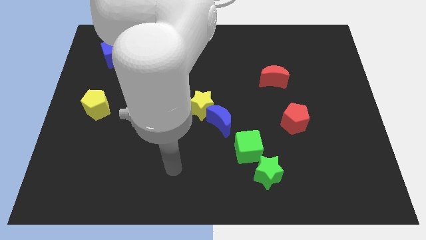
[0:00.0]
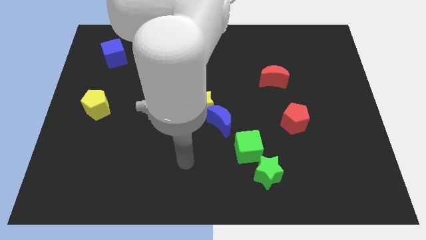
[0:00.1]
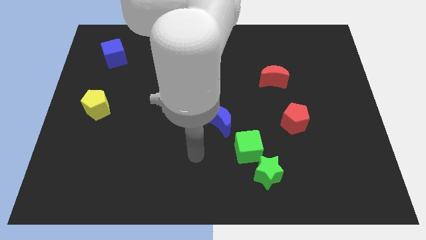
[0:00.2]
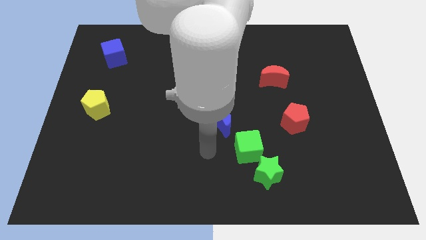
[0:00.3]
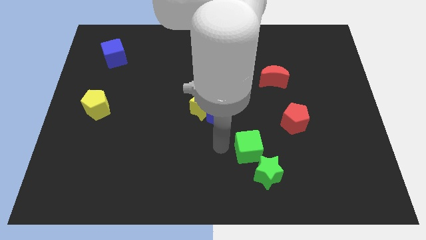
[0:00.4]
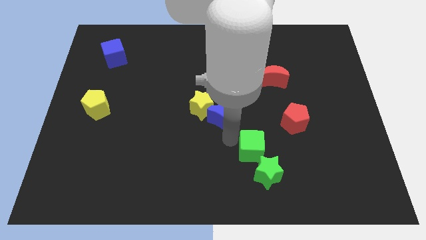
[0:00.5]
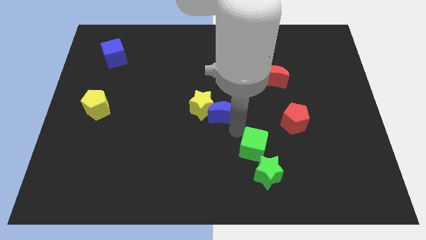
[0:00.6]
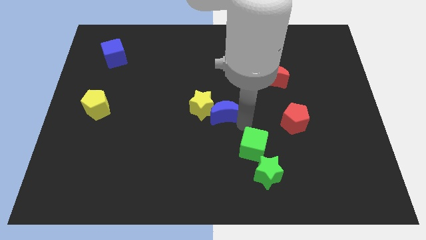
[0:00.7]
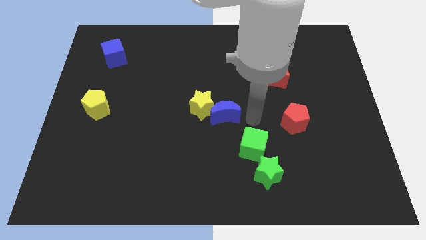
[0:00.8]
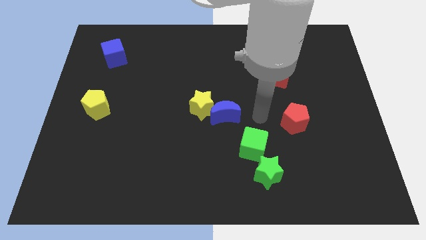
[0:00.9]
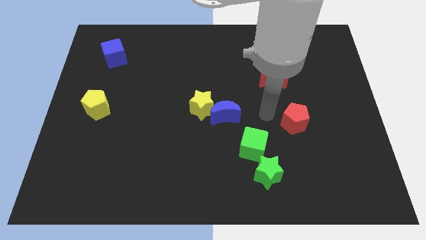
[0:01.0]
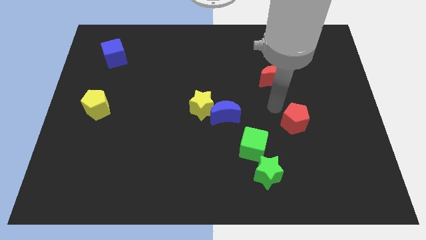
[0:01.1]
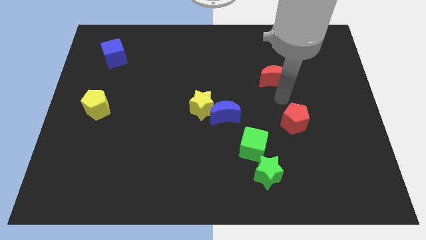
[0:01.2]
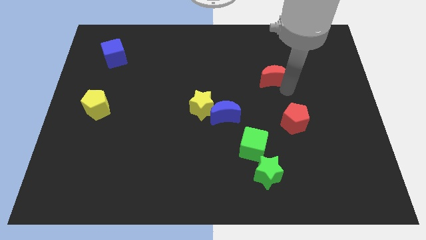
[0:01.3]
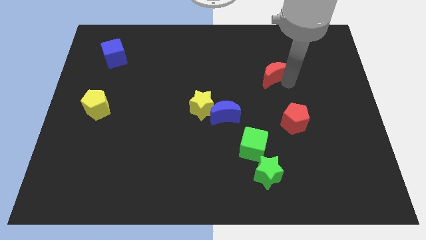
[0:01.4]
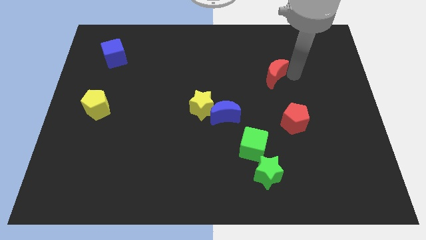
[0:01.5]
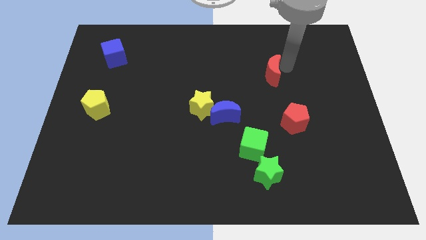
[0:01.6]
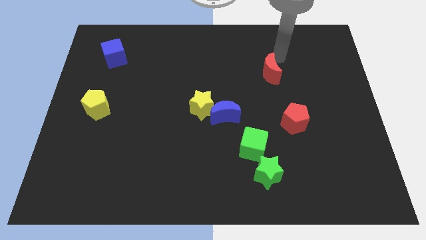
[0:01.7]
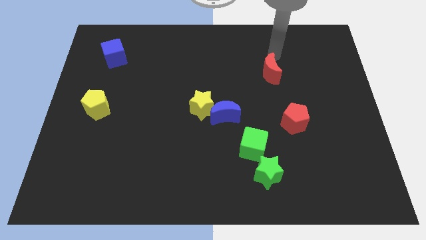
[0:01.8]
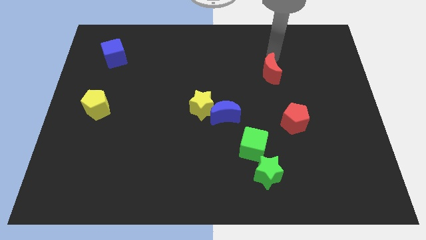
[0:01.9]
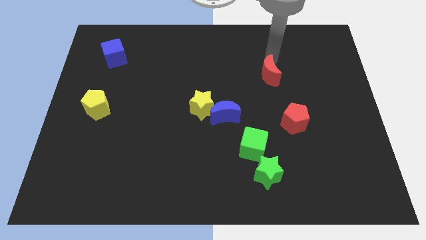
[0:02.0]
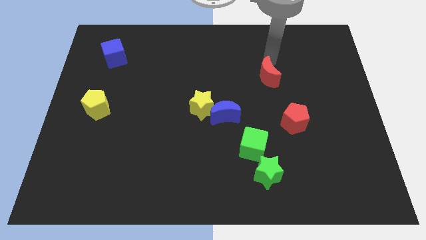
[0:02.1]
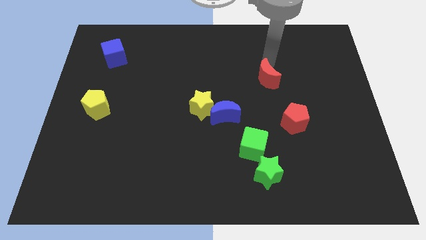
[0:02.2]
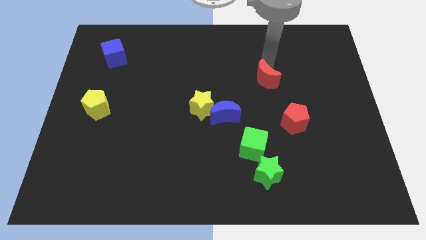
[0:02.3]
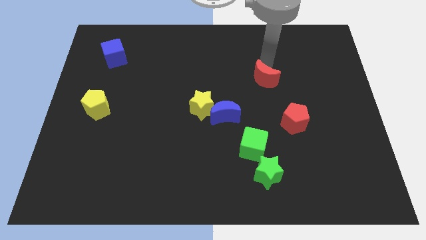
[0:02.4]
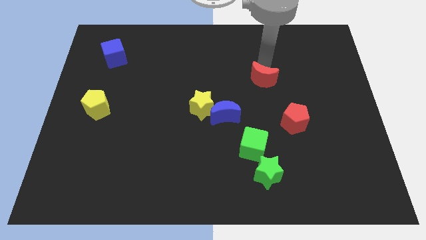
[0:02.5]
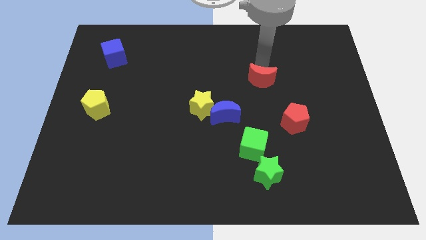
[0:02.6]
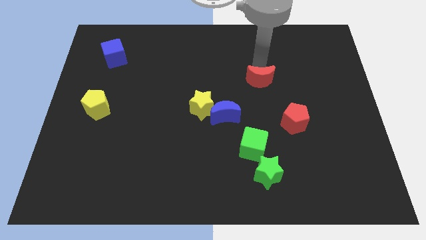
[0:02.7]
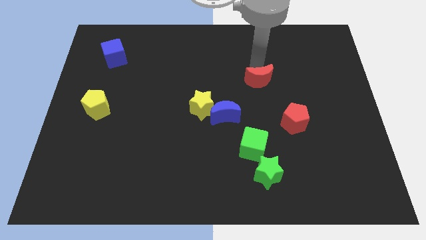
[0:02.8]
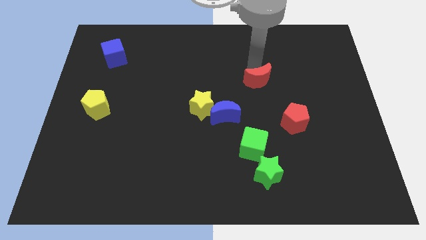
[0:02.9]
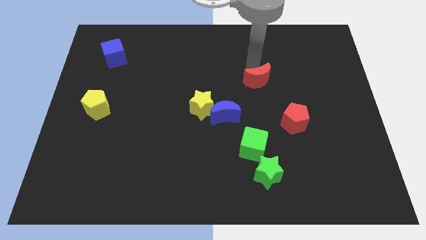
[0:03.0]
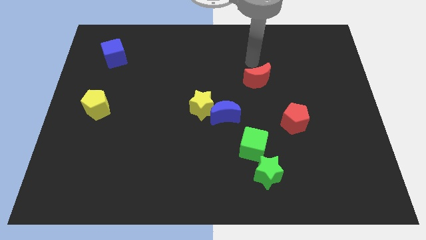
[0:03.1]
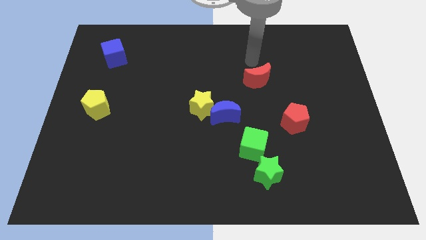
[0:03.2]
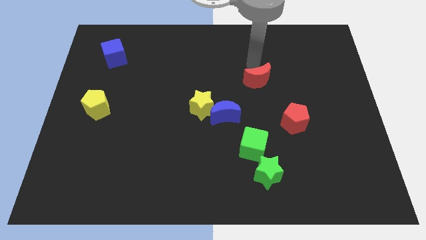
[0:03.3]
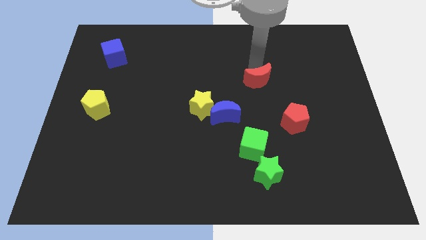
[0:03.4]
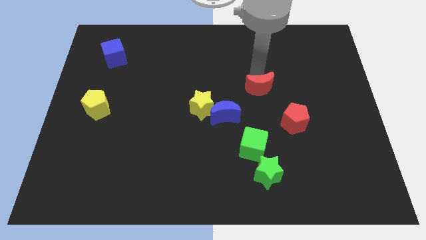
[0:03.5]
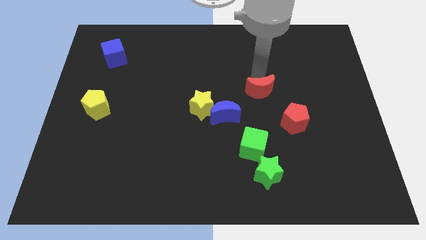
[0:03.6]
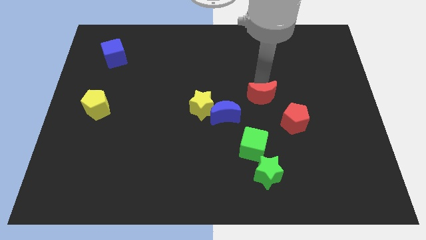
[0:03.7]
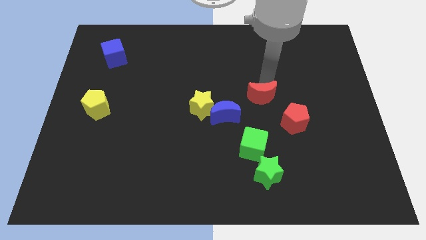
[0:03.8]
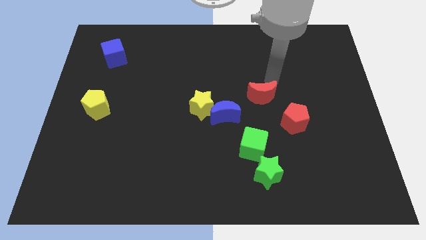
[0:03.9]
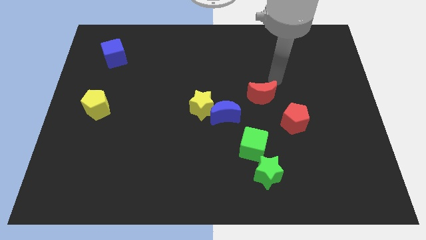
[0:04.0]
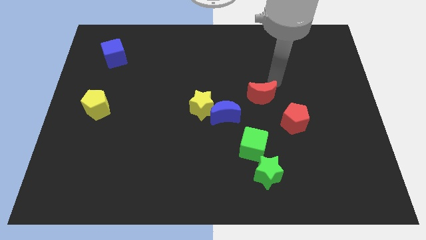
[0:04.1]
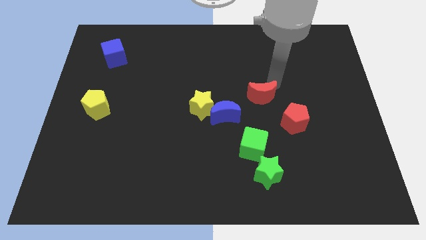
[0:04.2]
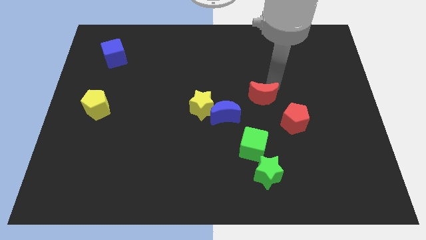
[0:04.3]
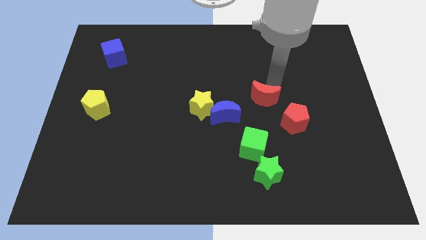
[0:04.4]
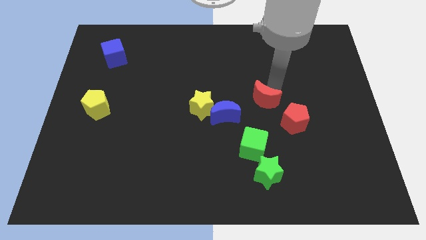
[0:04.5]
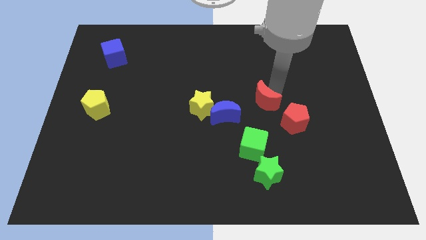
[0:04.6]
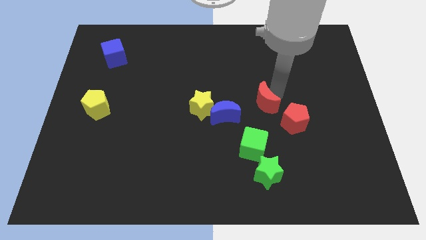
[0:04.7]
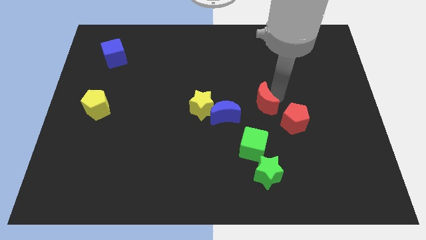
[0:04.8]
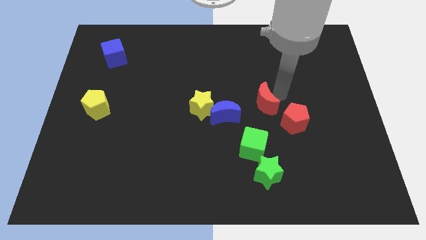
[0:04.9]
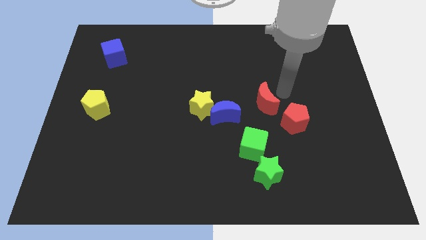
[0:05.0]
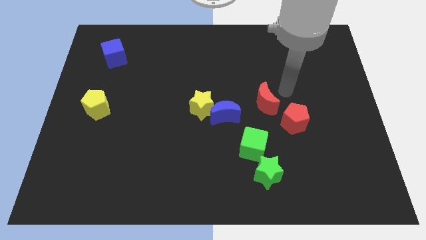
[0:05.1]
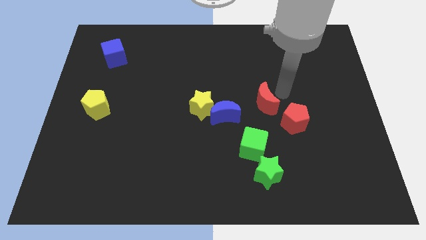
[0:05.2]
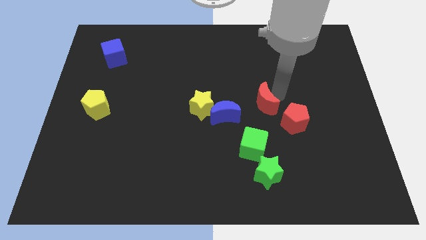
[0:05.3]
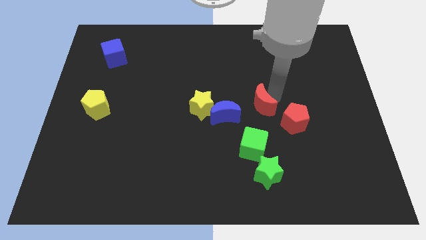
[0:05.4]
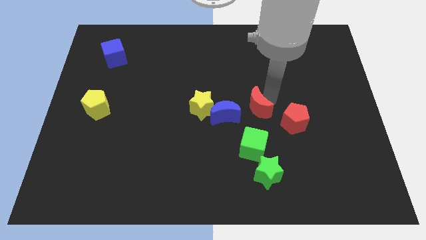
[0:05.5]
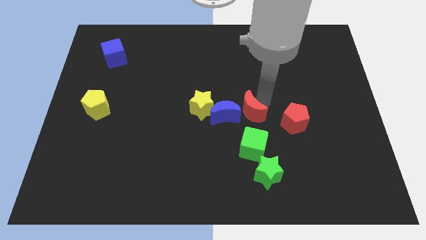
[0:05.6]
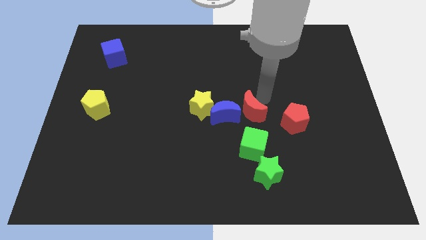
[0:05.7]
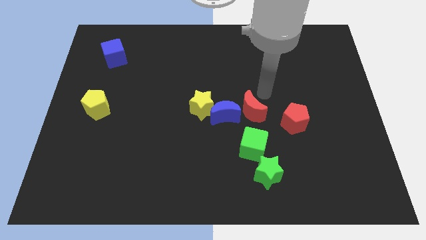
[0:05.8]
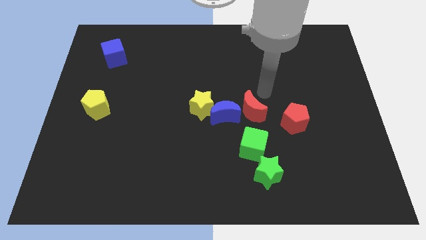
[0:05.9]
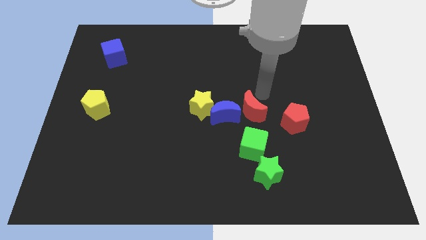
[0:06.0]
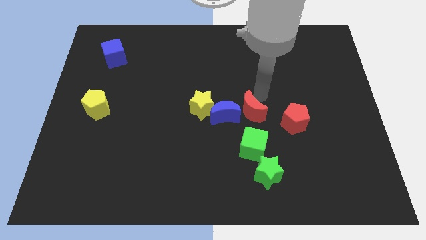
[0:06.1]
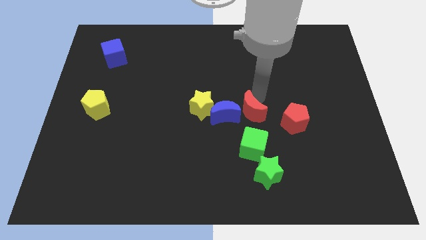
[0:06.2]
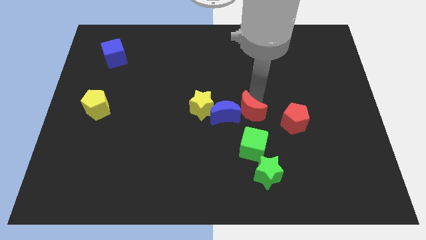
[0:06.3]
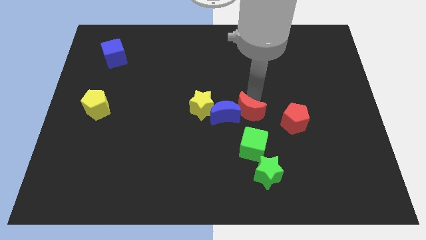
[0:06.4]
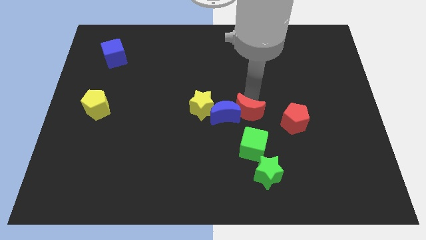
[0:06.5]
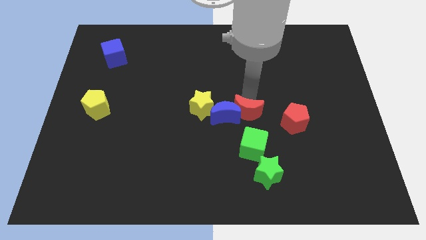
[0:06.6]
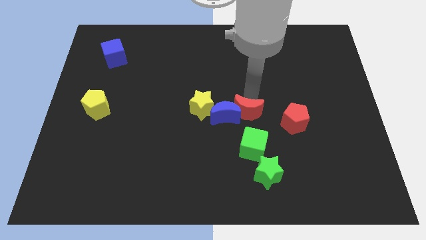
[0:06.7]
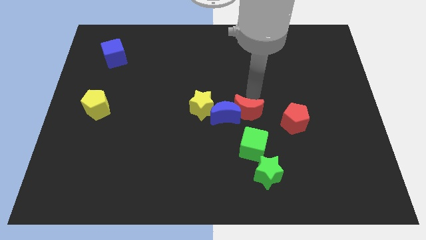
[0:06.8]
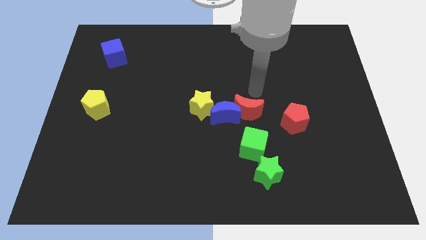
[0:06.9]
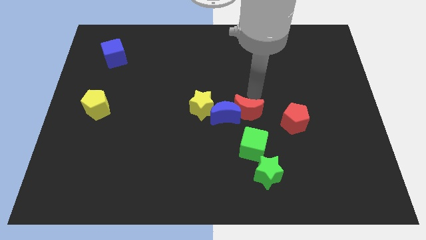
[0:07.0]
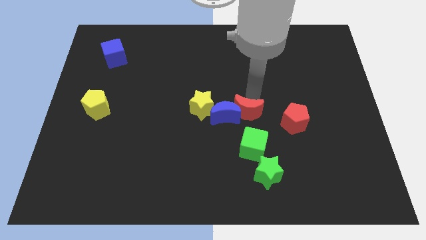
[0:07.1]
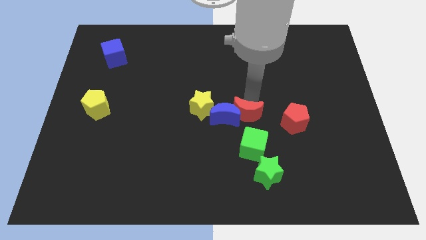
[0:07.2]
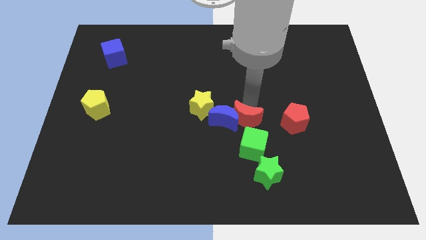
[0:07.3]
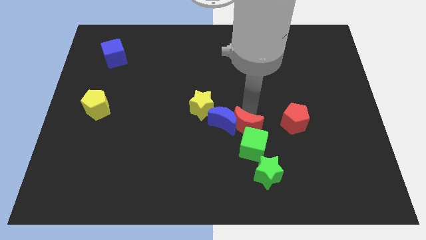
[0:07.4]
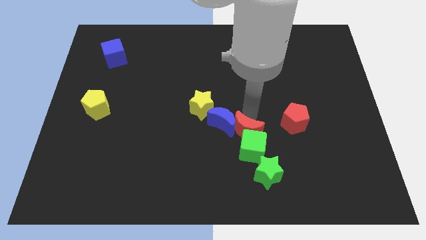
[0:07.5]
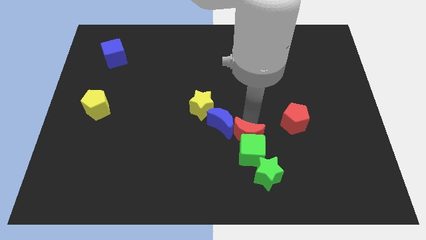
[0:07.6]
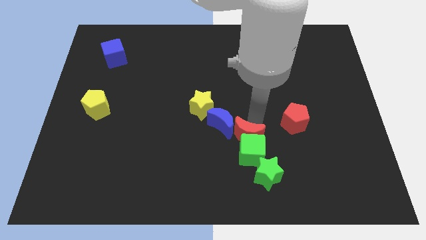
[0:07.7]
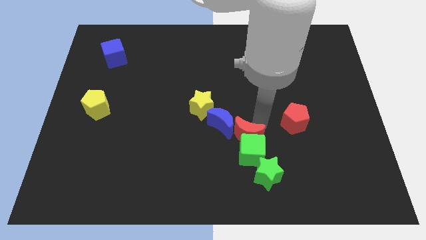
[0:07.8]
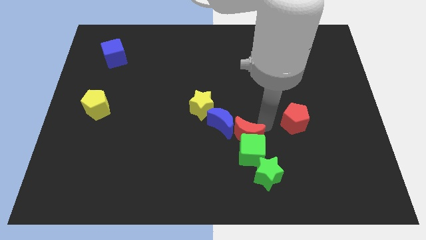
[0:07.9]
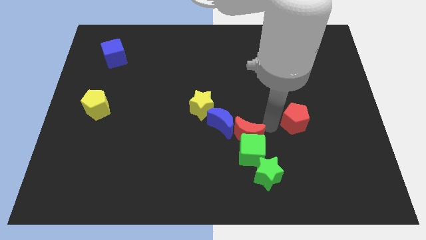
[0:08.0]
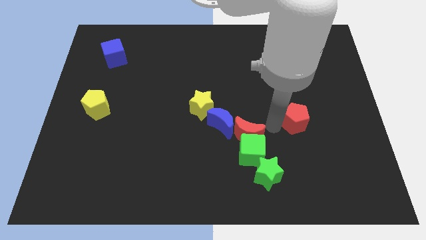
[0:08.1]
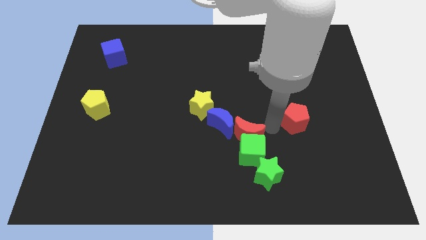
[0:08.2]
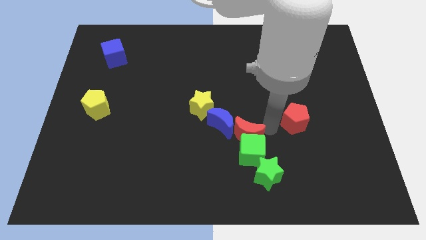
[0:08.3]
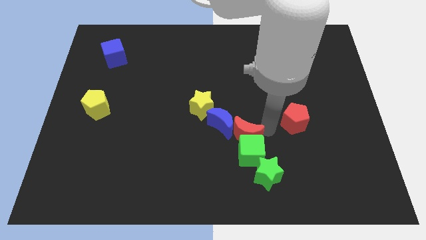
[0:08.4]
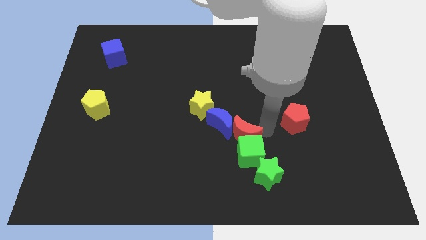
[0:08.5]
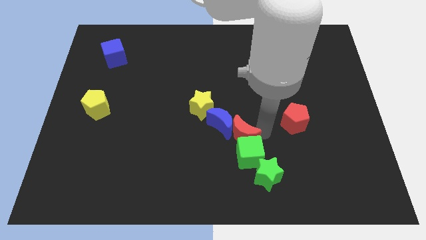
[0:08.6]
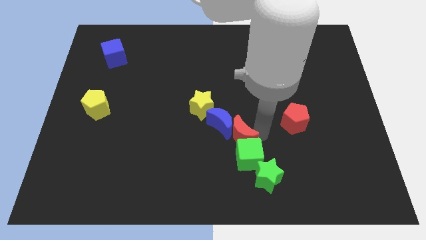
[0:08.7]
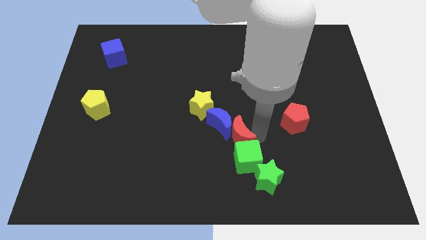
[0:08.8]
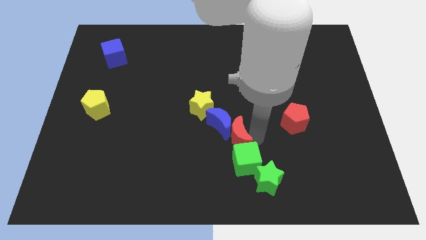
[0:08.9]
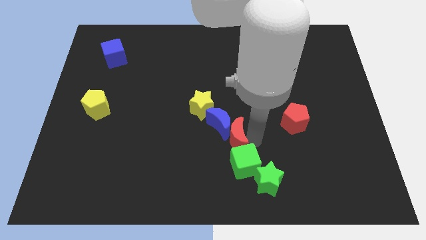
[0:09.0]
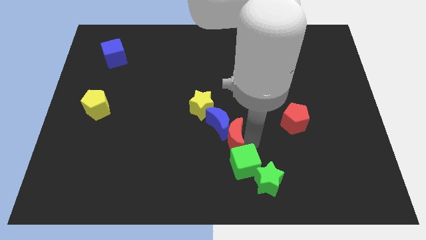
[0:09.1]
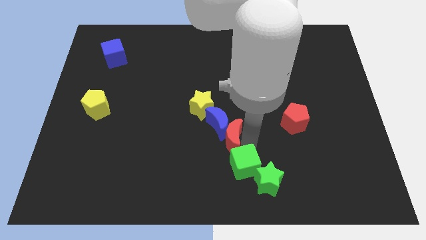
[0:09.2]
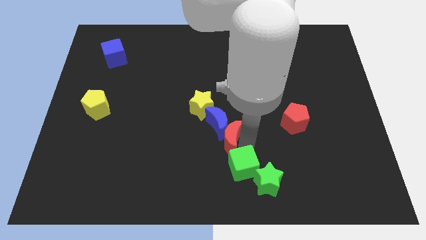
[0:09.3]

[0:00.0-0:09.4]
move the red moon downwards and to the left diagonally
